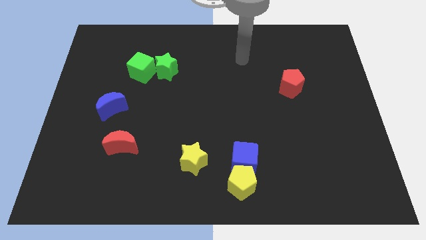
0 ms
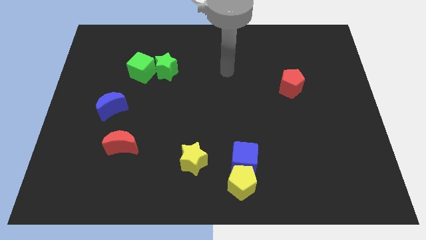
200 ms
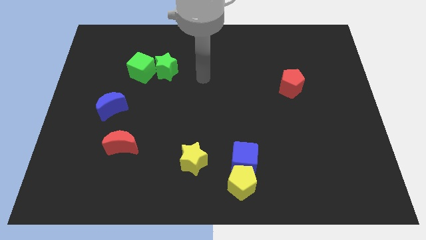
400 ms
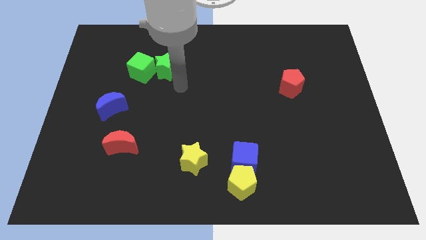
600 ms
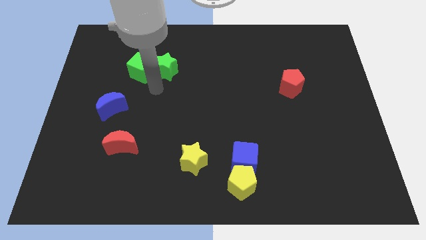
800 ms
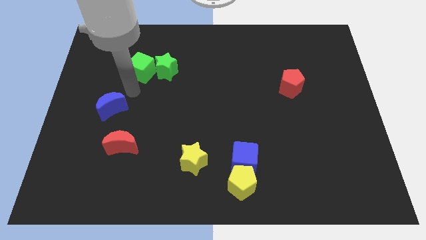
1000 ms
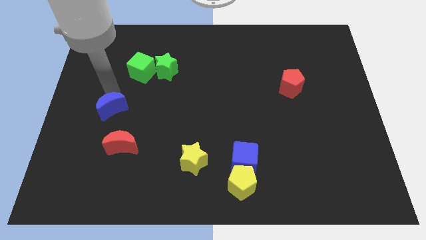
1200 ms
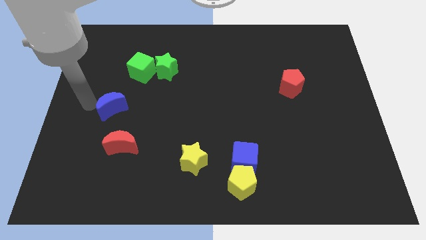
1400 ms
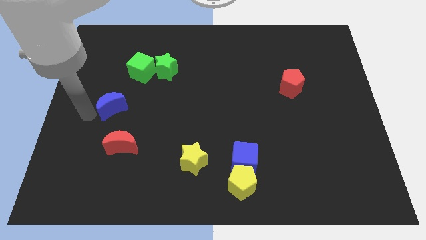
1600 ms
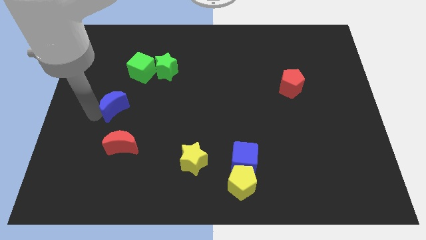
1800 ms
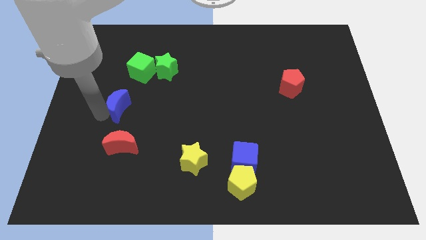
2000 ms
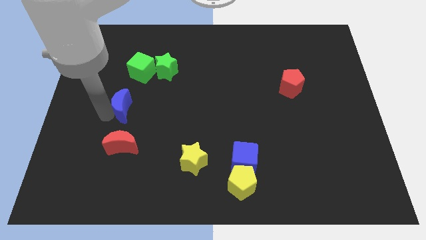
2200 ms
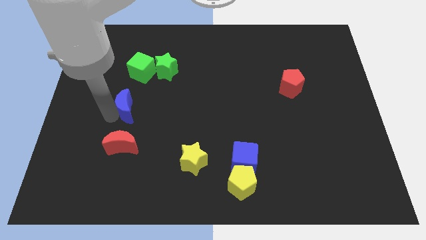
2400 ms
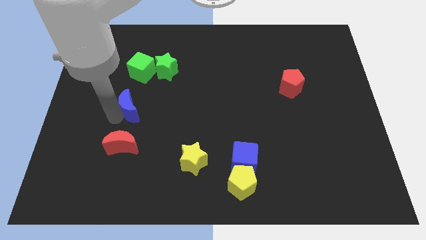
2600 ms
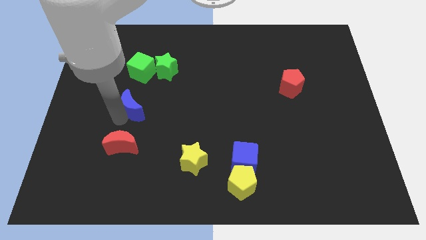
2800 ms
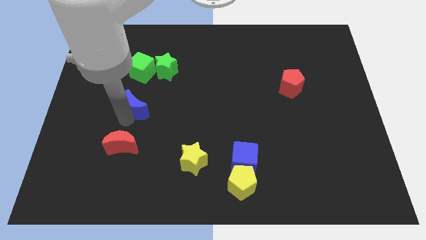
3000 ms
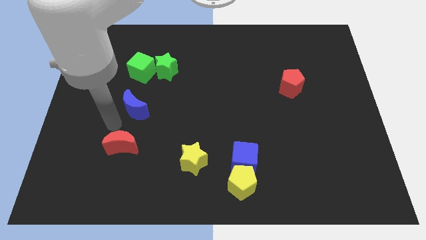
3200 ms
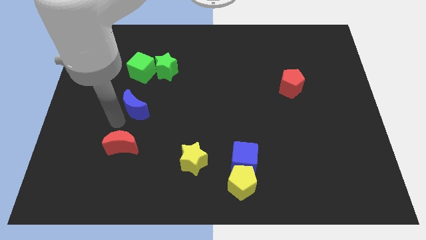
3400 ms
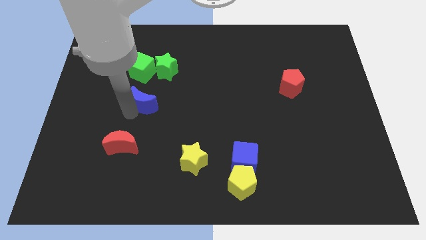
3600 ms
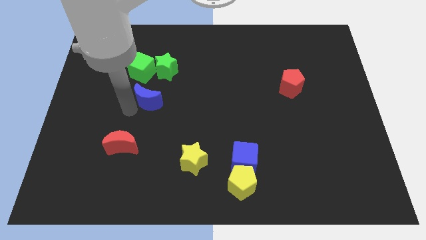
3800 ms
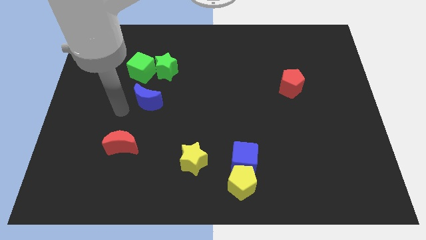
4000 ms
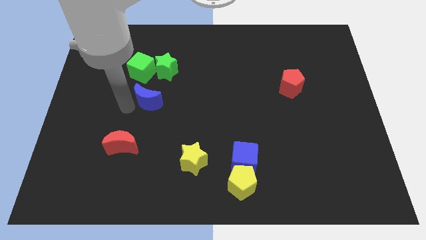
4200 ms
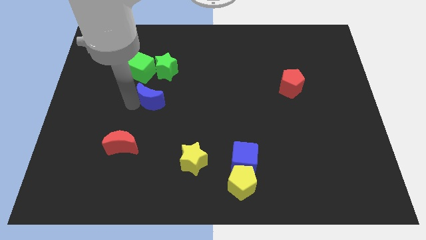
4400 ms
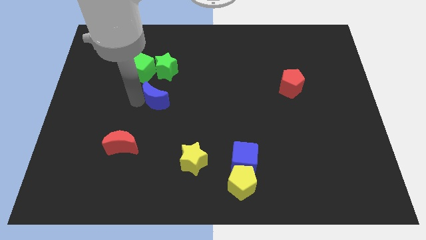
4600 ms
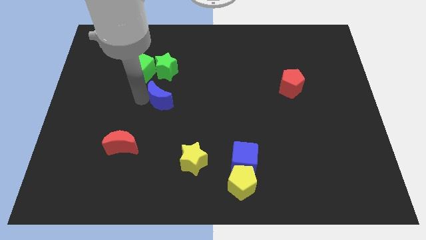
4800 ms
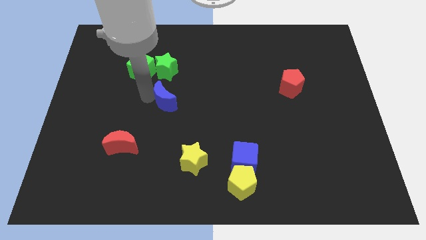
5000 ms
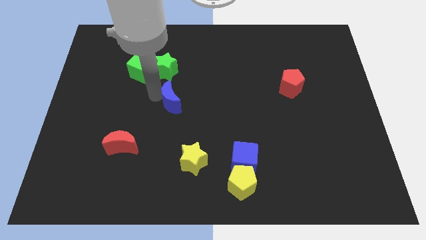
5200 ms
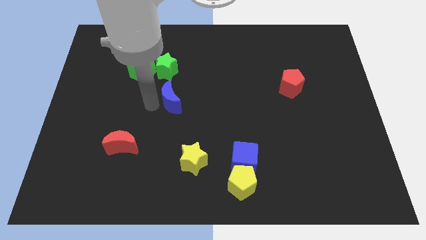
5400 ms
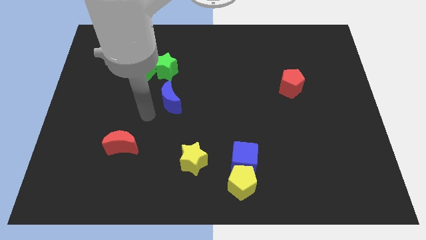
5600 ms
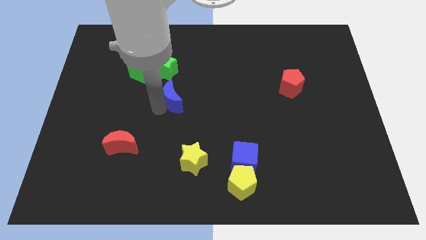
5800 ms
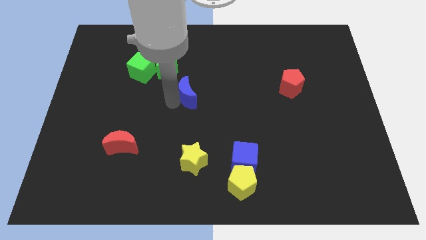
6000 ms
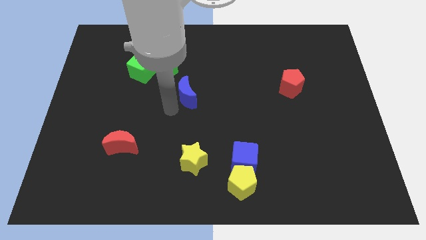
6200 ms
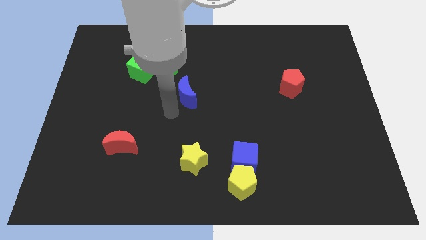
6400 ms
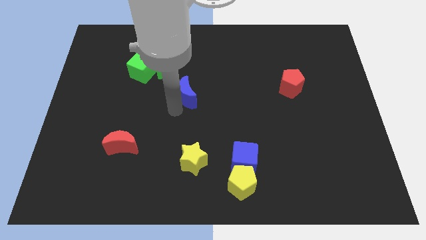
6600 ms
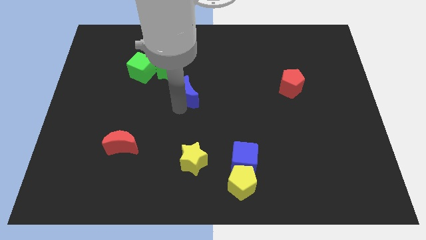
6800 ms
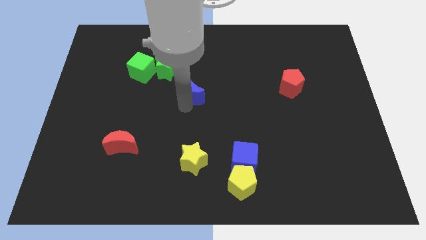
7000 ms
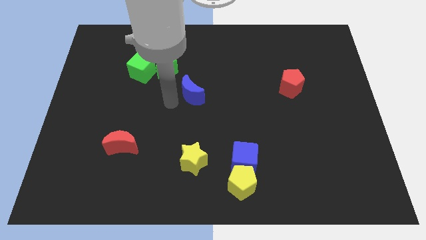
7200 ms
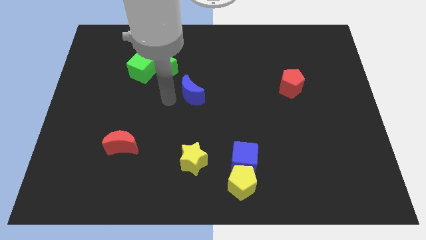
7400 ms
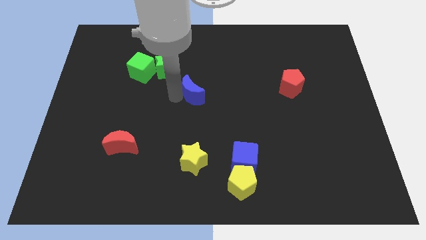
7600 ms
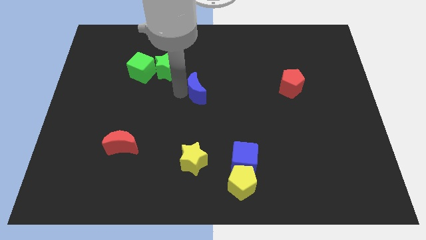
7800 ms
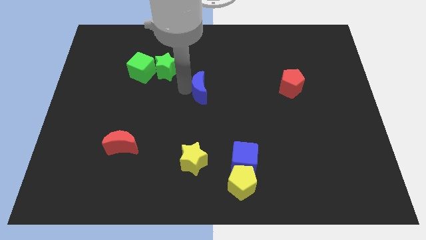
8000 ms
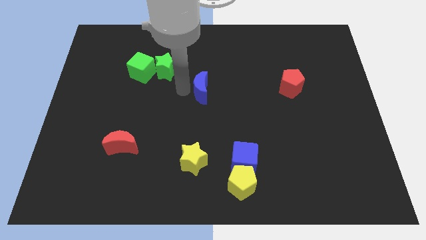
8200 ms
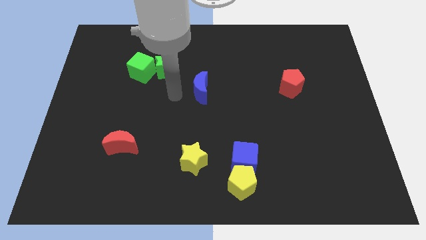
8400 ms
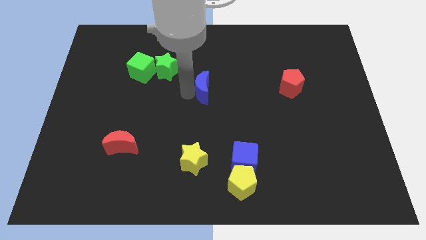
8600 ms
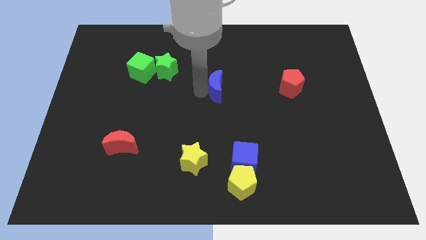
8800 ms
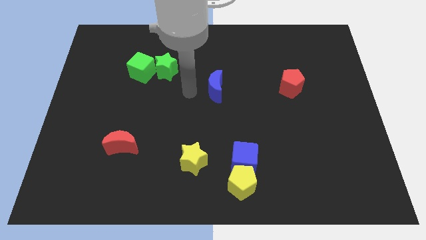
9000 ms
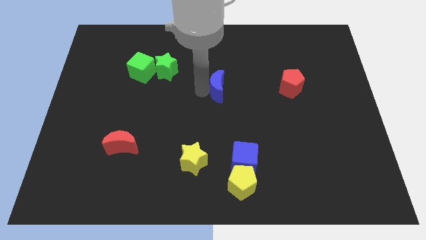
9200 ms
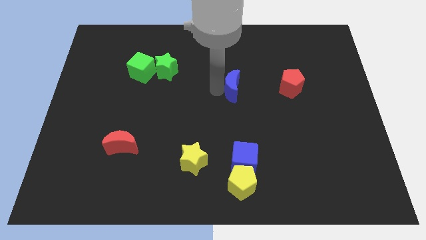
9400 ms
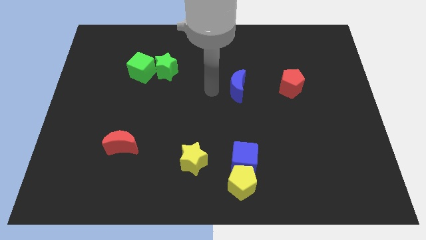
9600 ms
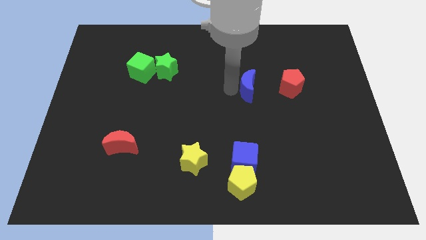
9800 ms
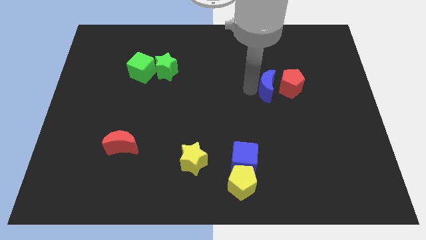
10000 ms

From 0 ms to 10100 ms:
push the blue moon next to the red pentagon

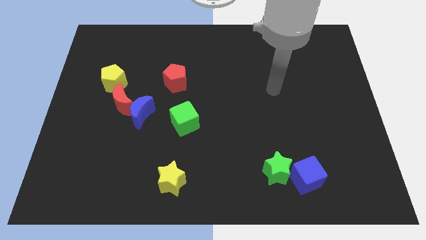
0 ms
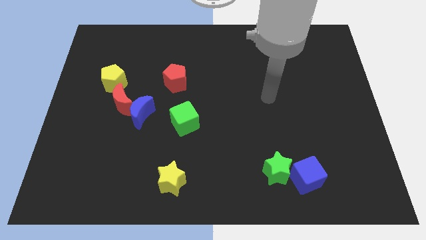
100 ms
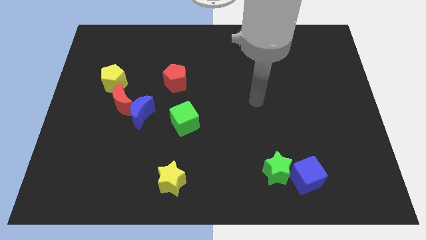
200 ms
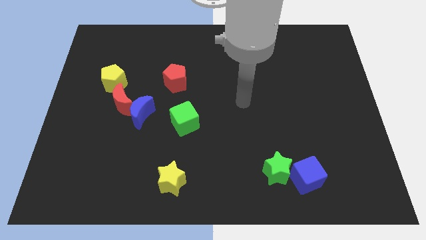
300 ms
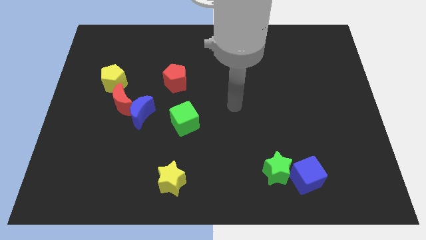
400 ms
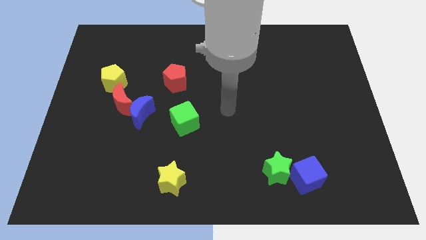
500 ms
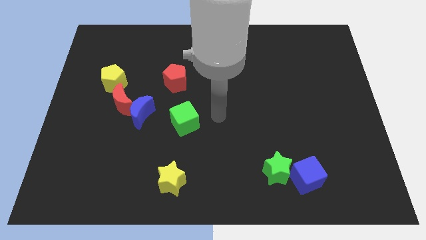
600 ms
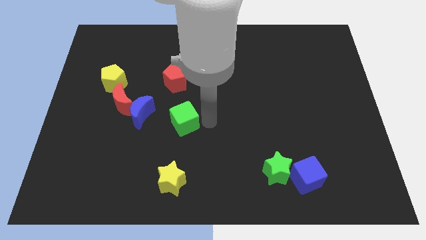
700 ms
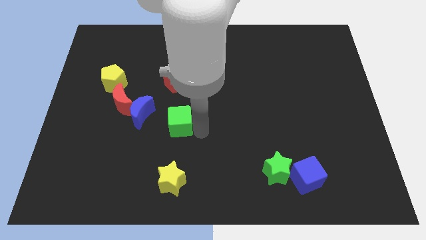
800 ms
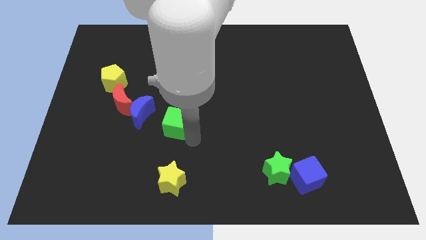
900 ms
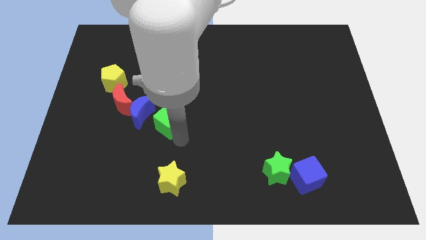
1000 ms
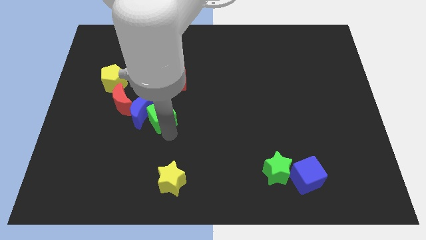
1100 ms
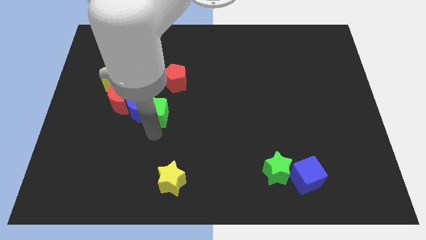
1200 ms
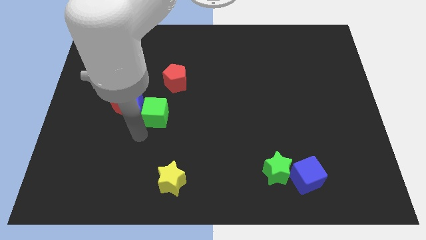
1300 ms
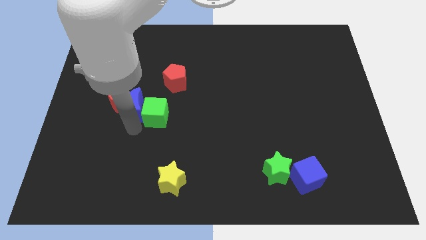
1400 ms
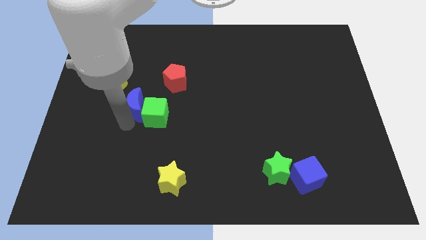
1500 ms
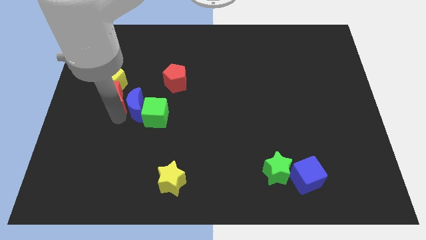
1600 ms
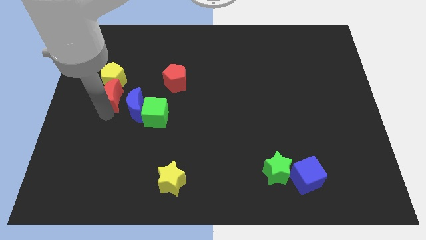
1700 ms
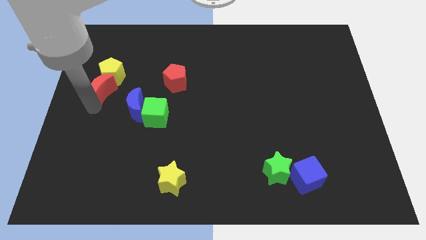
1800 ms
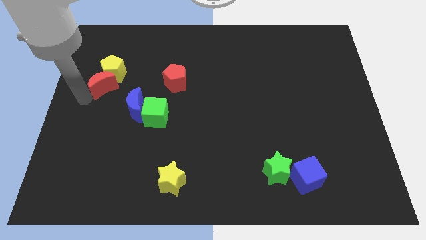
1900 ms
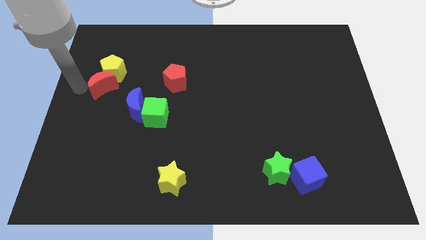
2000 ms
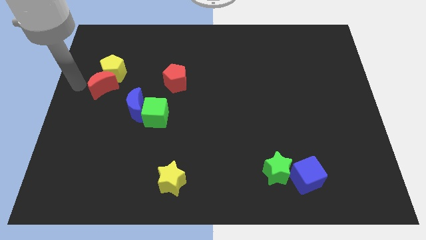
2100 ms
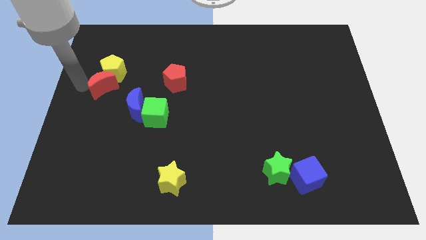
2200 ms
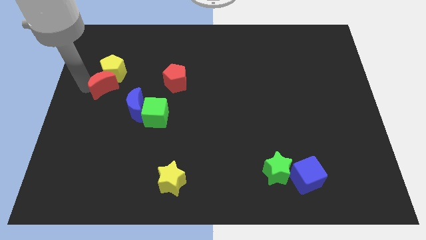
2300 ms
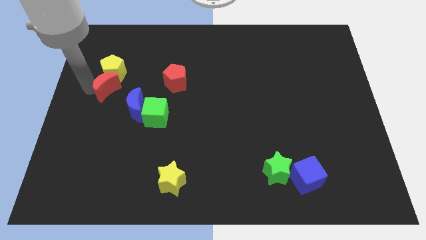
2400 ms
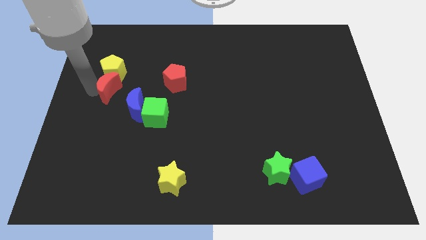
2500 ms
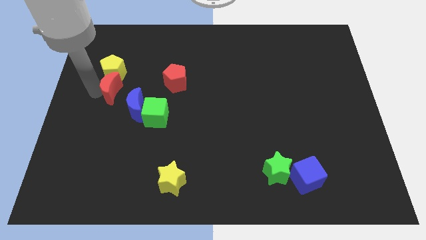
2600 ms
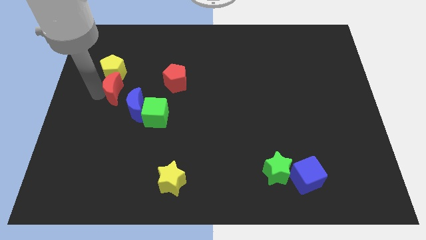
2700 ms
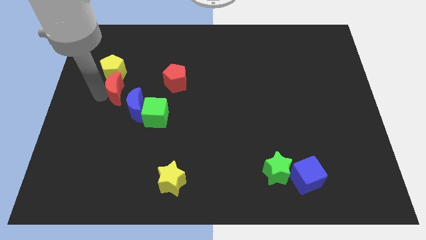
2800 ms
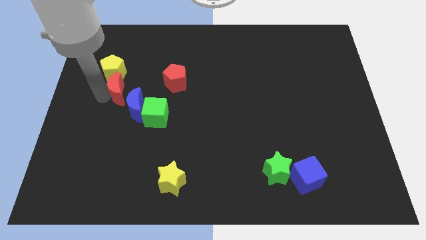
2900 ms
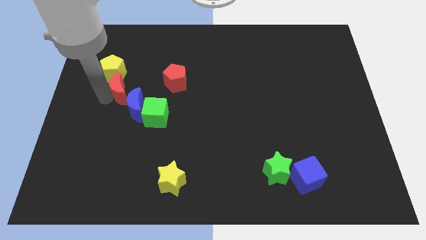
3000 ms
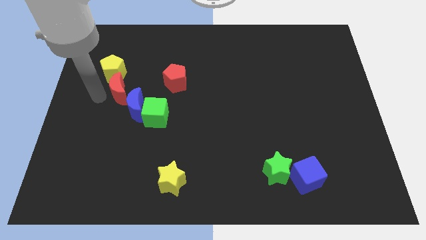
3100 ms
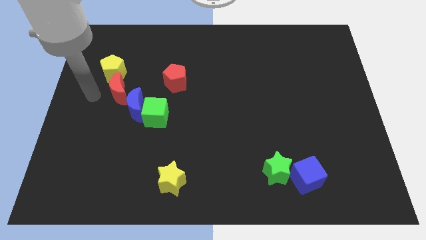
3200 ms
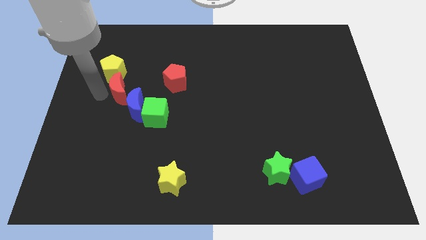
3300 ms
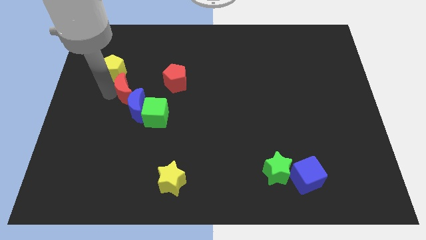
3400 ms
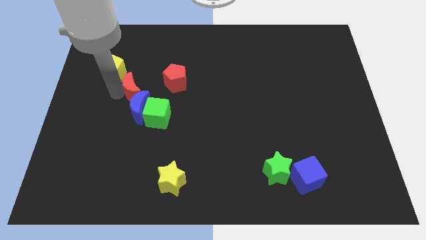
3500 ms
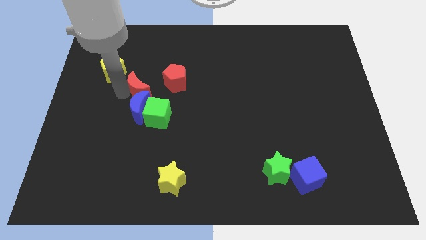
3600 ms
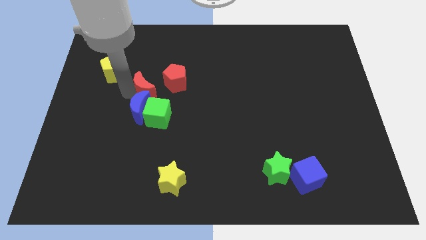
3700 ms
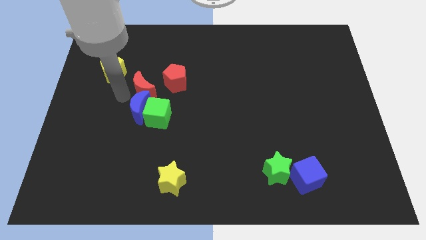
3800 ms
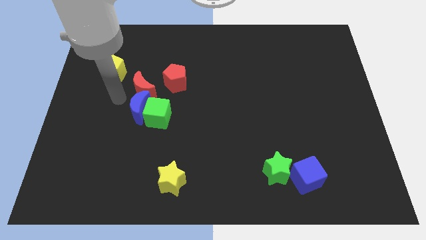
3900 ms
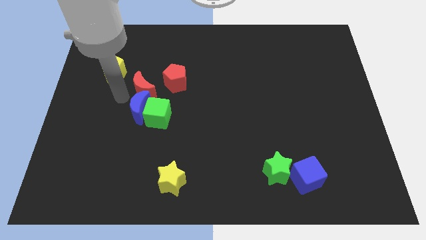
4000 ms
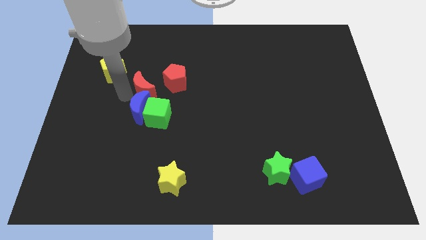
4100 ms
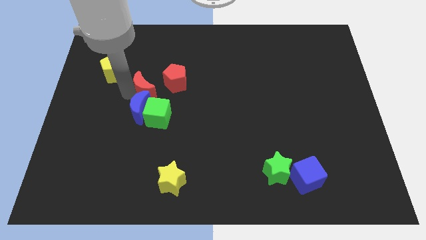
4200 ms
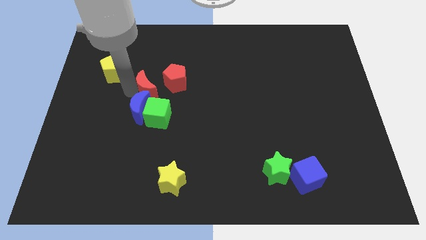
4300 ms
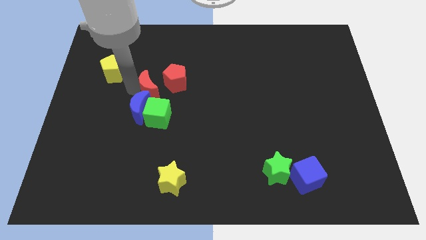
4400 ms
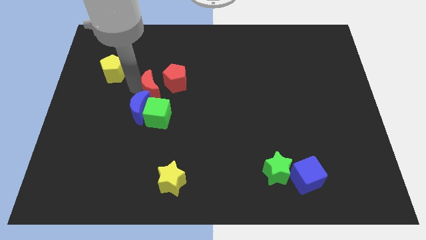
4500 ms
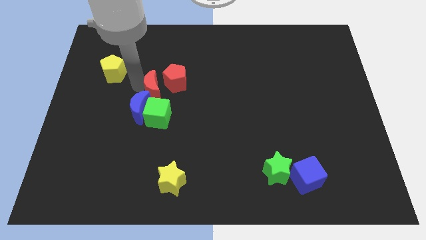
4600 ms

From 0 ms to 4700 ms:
slide the red moon next to the red pentagon
